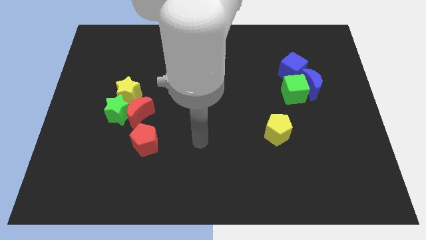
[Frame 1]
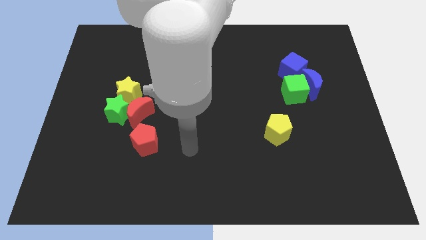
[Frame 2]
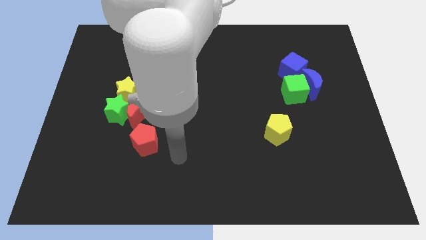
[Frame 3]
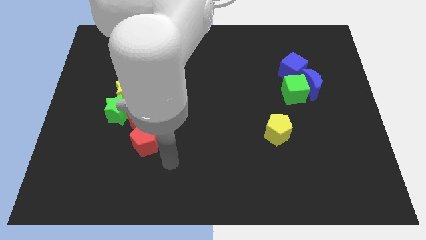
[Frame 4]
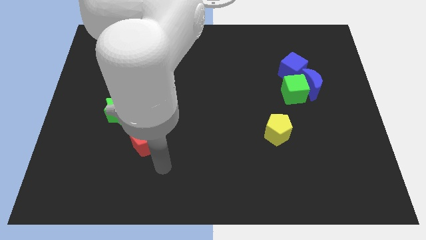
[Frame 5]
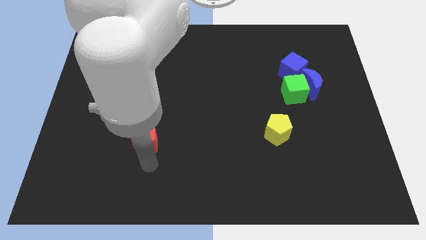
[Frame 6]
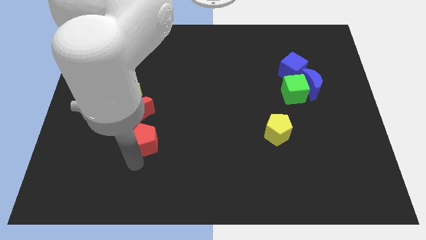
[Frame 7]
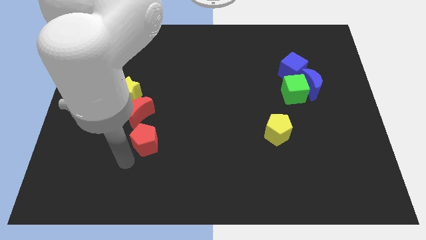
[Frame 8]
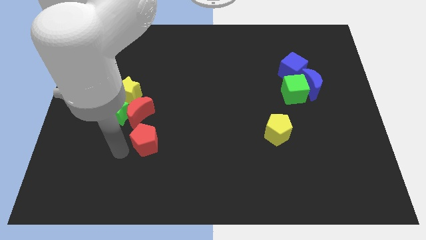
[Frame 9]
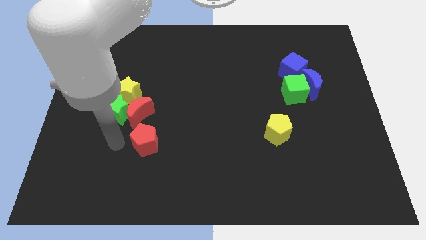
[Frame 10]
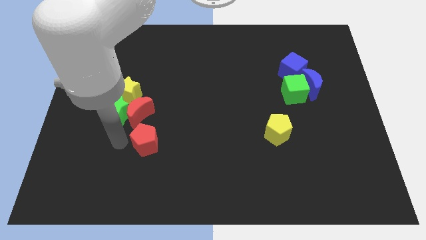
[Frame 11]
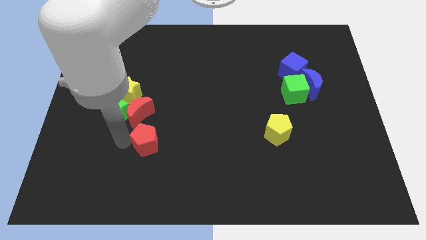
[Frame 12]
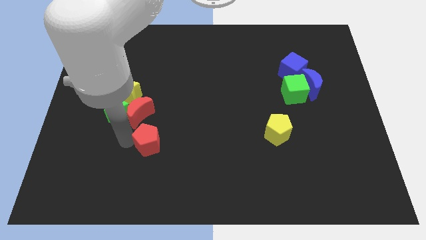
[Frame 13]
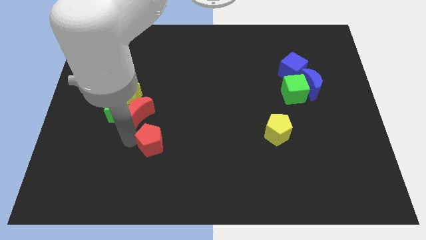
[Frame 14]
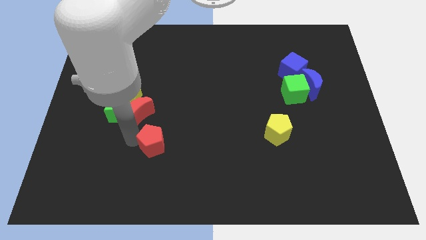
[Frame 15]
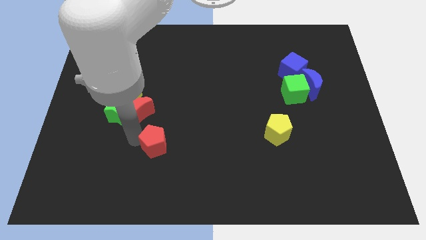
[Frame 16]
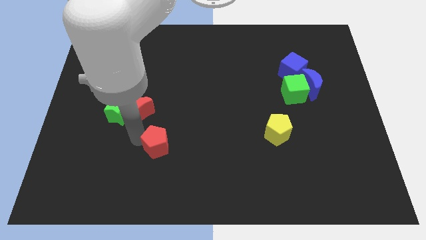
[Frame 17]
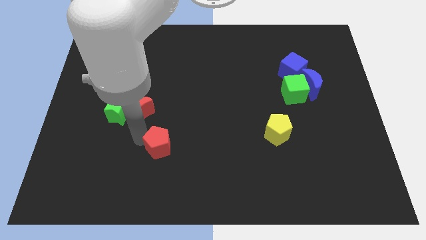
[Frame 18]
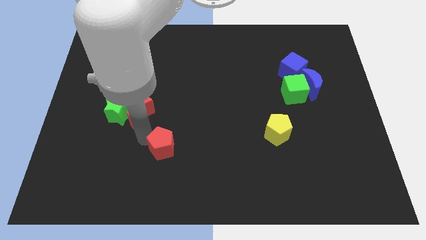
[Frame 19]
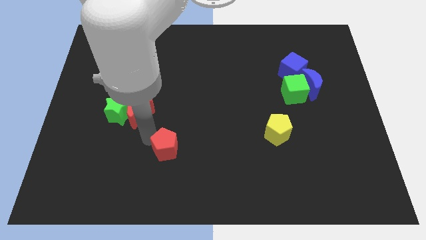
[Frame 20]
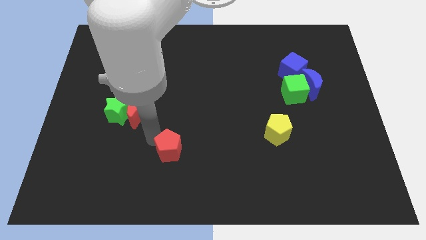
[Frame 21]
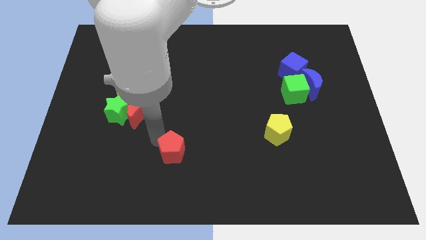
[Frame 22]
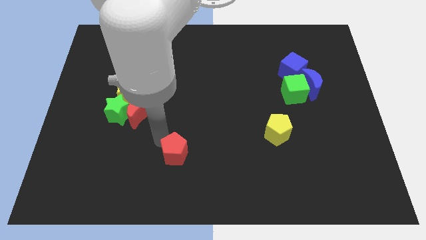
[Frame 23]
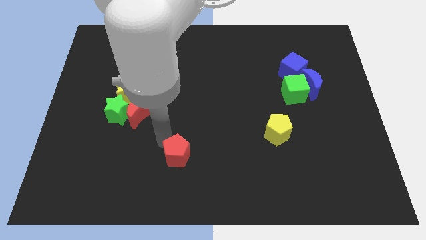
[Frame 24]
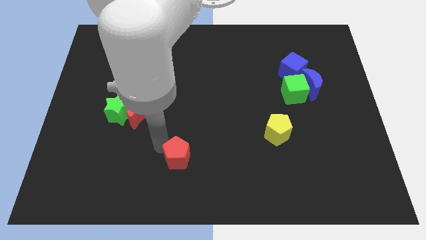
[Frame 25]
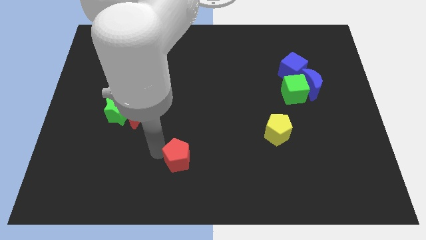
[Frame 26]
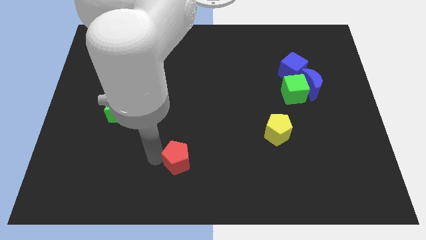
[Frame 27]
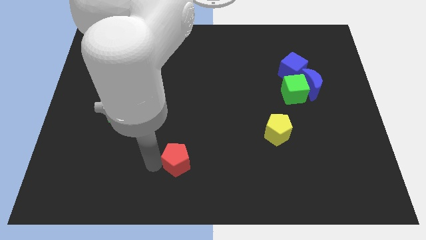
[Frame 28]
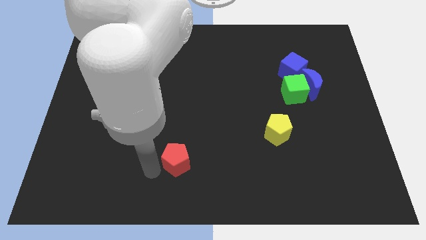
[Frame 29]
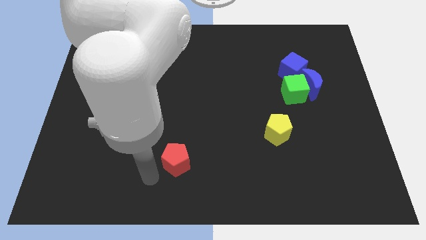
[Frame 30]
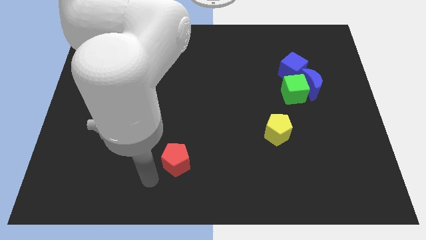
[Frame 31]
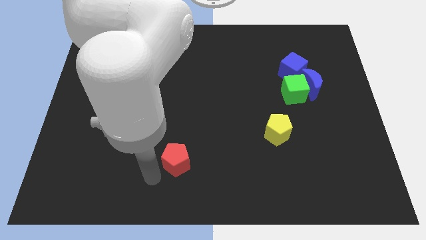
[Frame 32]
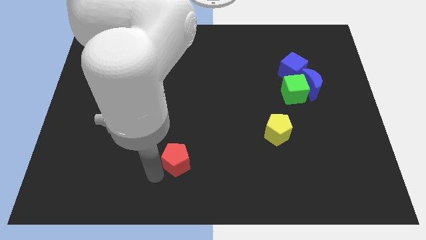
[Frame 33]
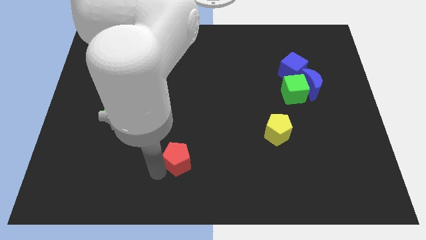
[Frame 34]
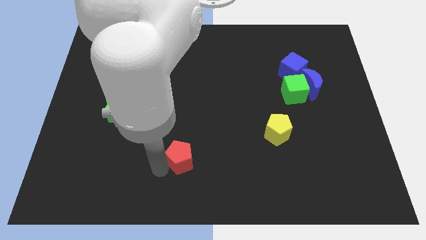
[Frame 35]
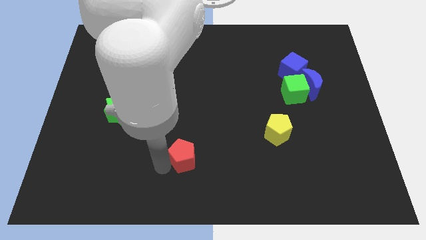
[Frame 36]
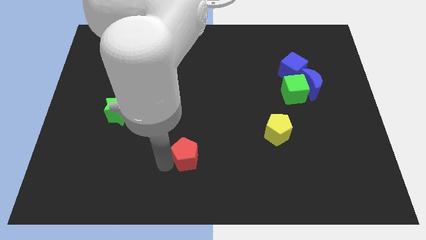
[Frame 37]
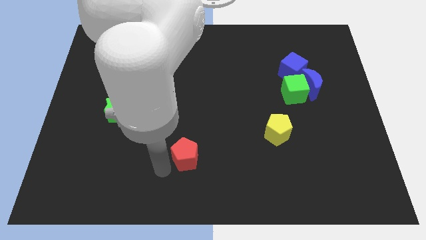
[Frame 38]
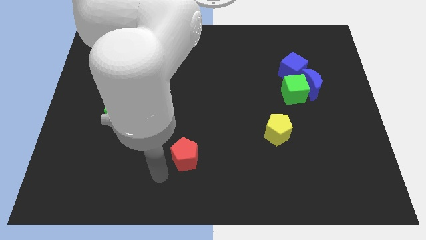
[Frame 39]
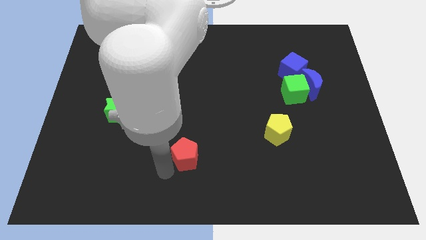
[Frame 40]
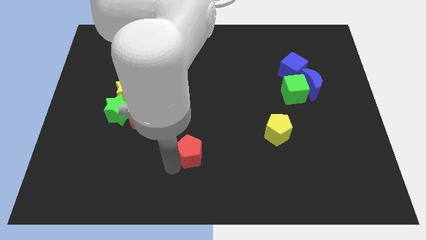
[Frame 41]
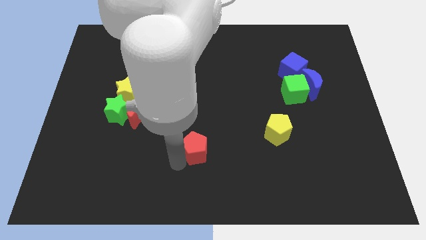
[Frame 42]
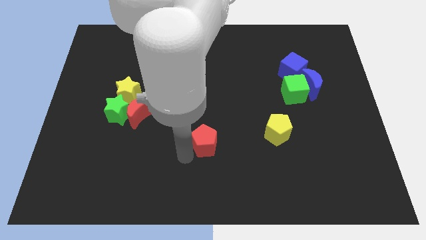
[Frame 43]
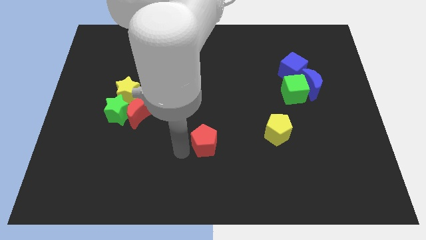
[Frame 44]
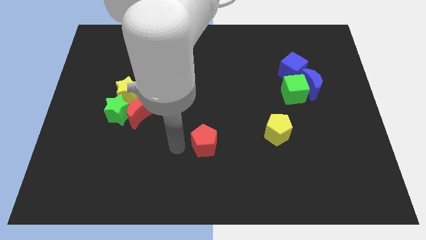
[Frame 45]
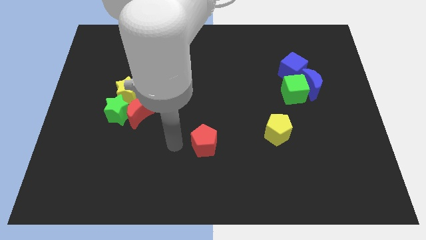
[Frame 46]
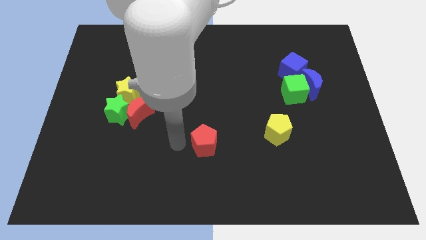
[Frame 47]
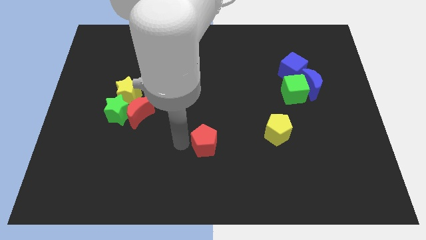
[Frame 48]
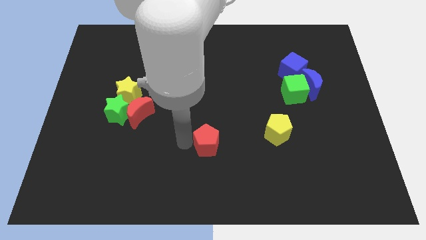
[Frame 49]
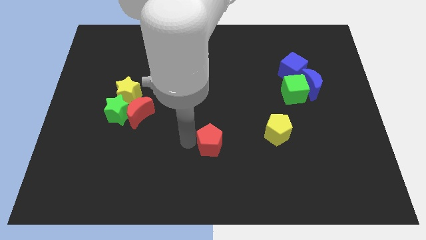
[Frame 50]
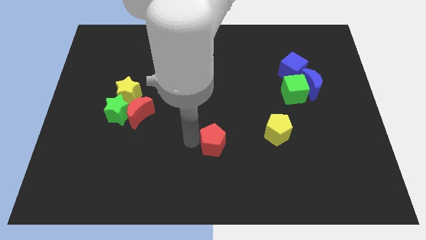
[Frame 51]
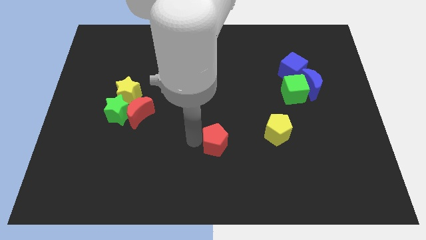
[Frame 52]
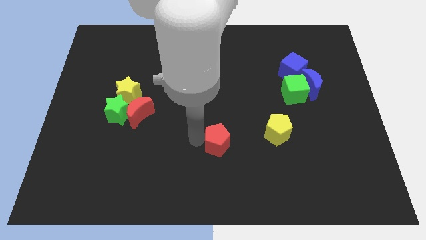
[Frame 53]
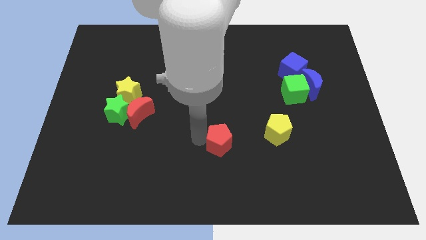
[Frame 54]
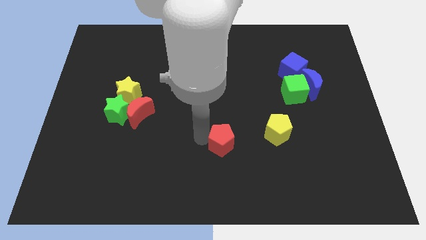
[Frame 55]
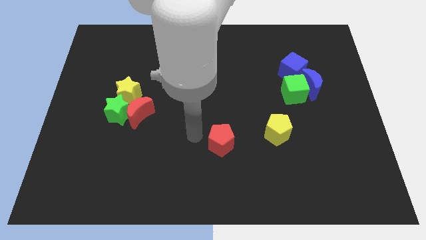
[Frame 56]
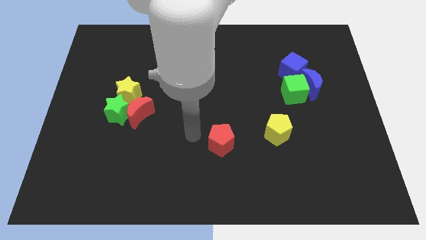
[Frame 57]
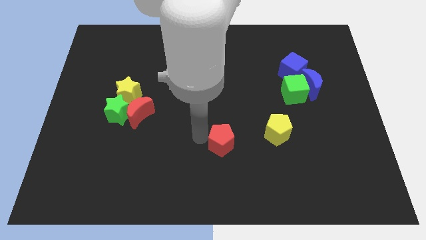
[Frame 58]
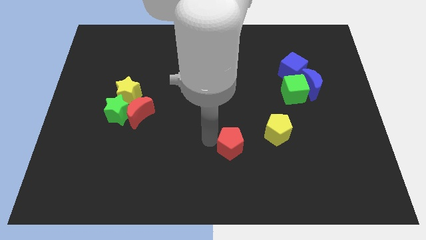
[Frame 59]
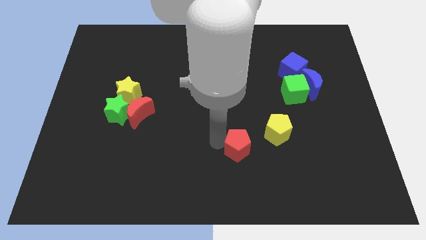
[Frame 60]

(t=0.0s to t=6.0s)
move the red pentagon to the bottom left of the yellow pentagon

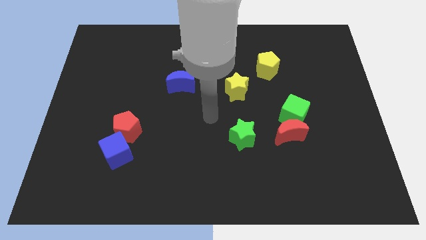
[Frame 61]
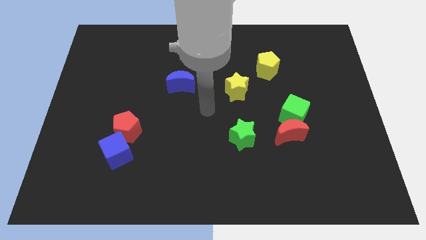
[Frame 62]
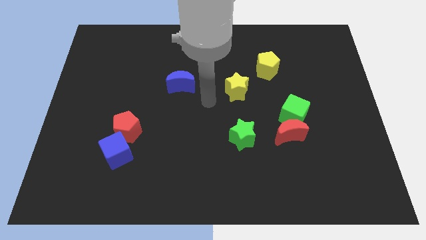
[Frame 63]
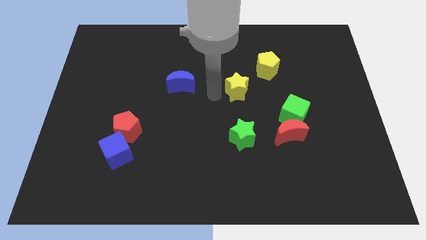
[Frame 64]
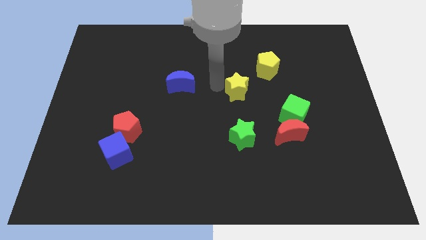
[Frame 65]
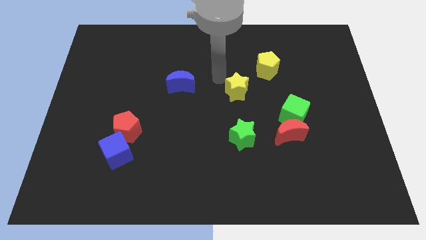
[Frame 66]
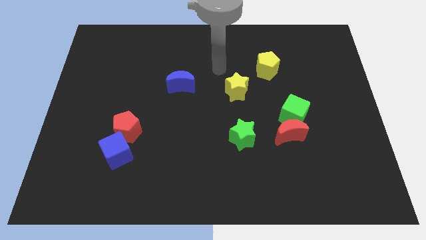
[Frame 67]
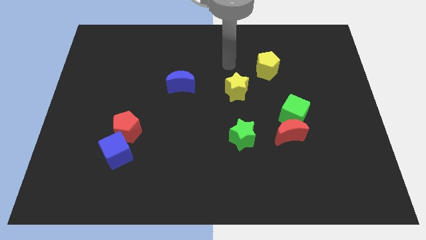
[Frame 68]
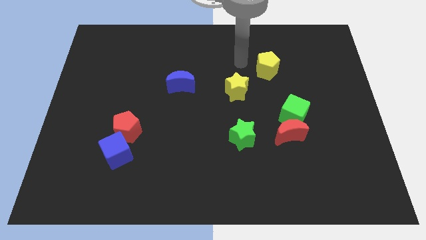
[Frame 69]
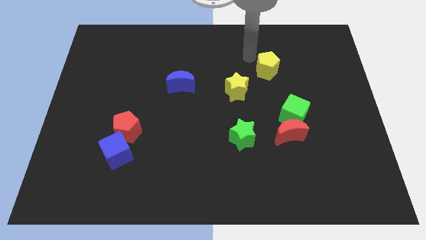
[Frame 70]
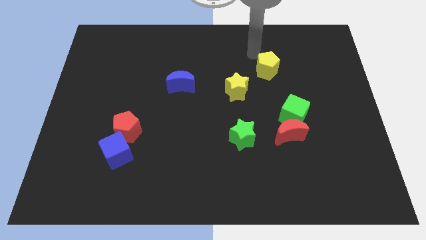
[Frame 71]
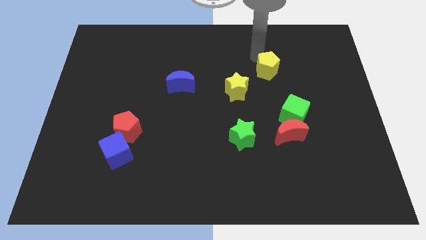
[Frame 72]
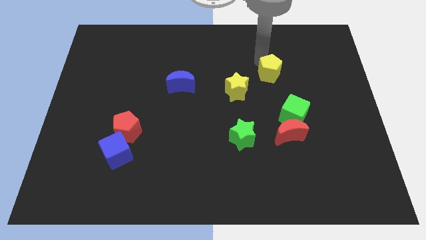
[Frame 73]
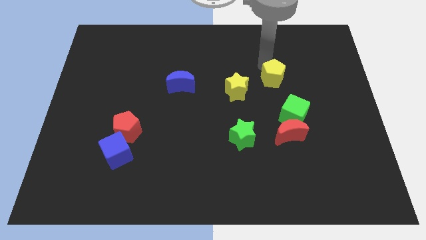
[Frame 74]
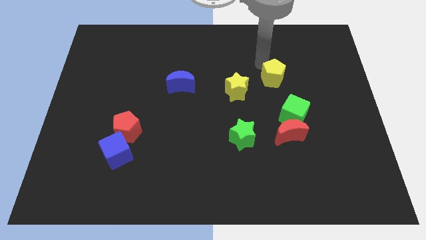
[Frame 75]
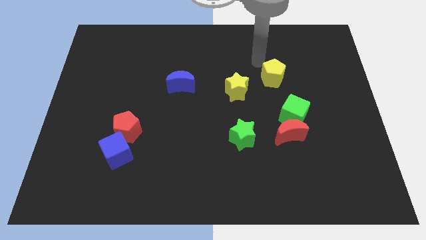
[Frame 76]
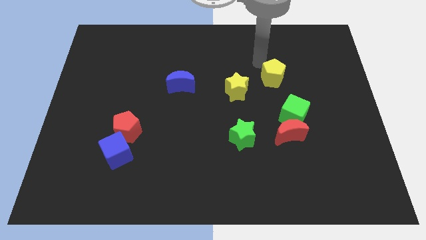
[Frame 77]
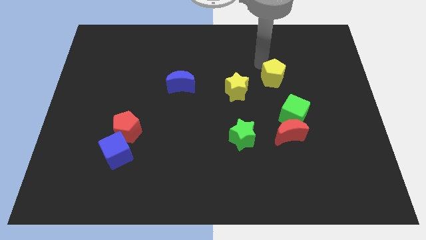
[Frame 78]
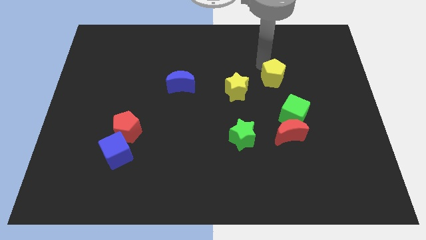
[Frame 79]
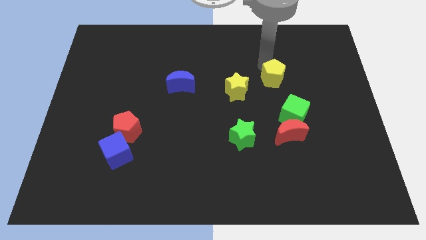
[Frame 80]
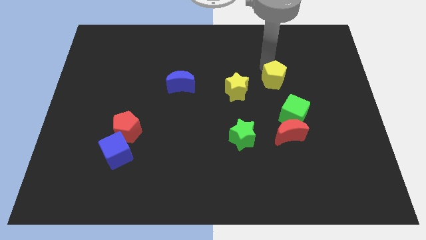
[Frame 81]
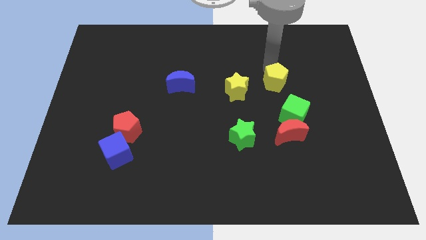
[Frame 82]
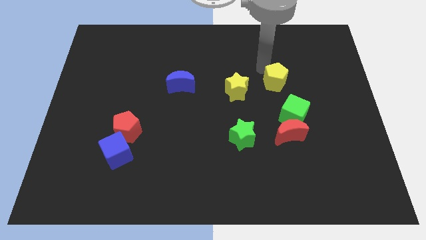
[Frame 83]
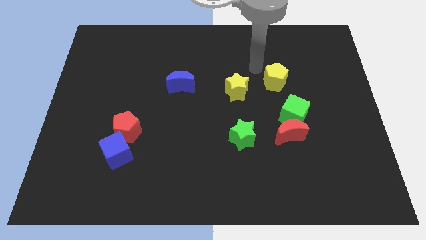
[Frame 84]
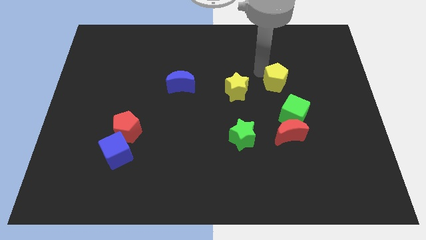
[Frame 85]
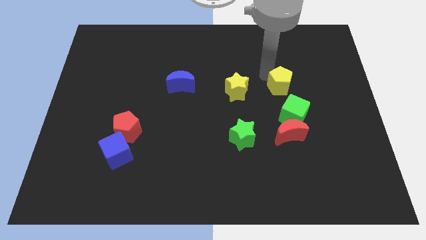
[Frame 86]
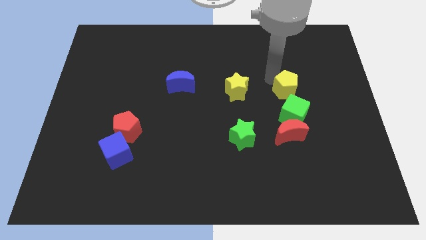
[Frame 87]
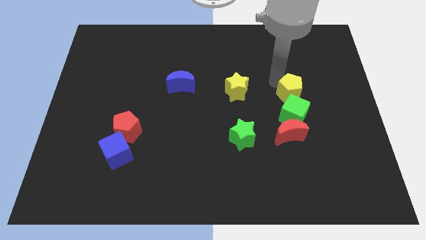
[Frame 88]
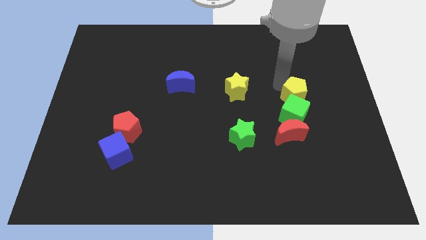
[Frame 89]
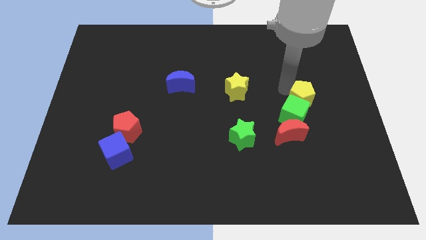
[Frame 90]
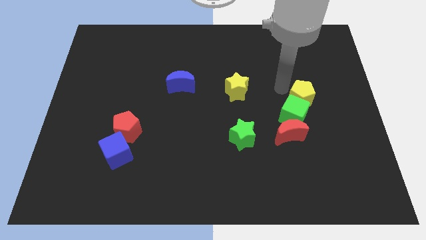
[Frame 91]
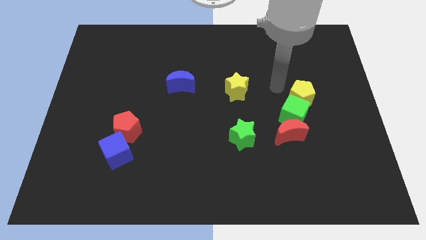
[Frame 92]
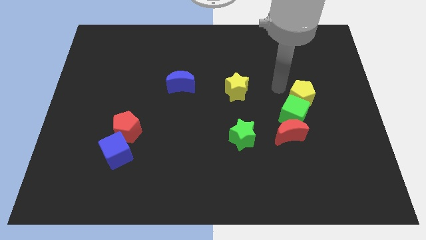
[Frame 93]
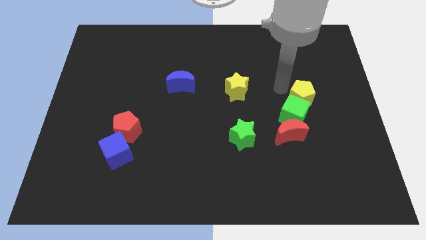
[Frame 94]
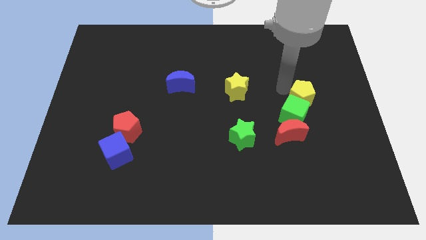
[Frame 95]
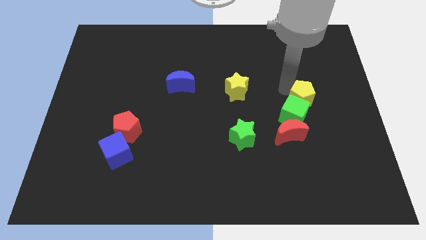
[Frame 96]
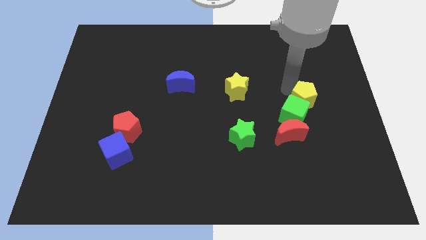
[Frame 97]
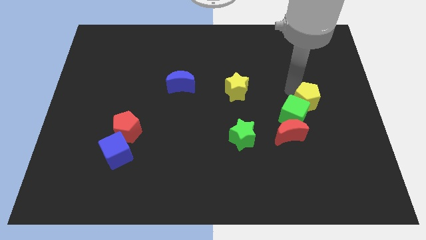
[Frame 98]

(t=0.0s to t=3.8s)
slide the yellow pentagon right of the green cube
